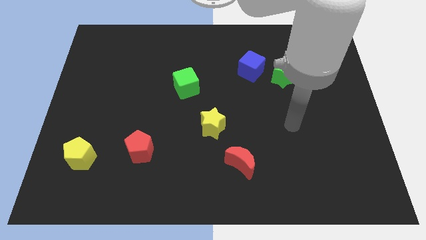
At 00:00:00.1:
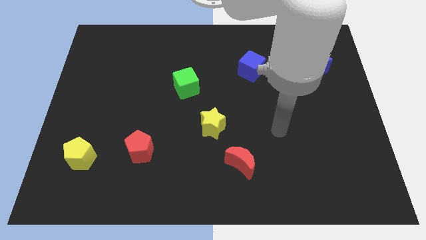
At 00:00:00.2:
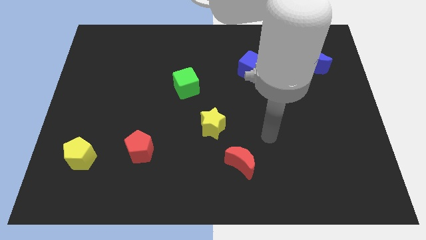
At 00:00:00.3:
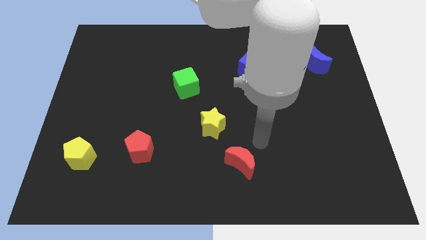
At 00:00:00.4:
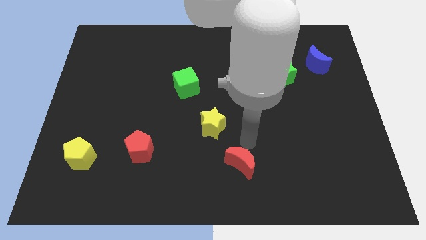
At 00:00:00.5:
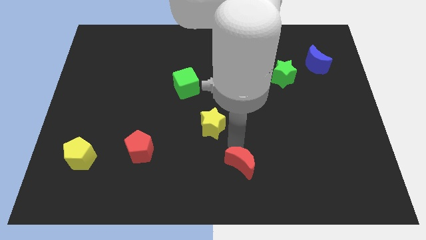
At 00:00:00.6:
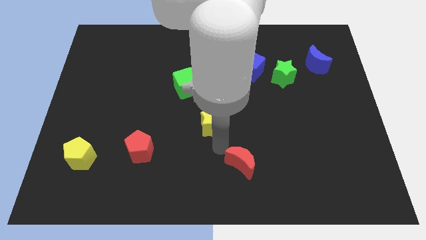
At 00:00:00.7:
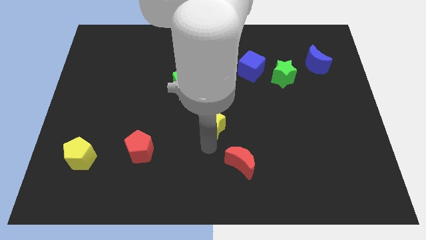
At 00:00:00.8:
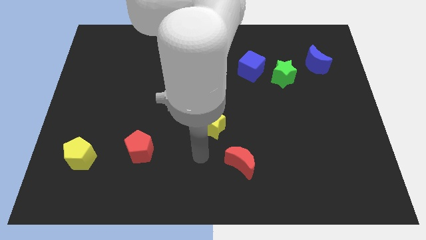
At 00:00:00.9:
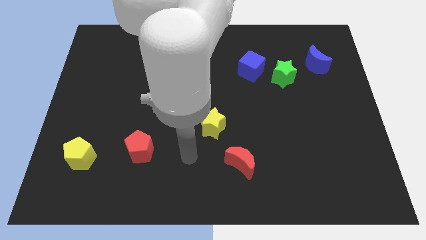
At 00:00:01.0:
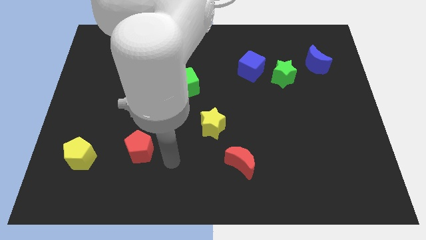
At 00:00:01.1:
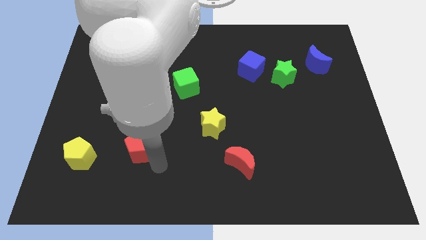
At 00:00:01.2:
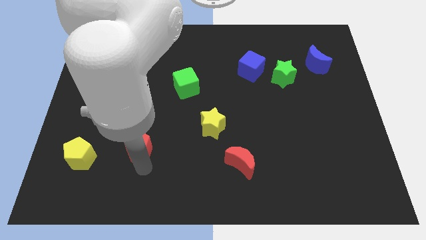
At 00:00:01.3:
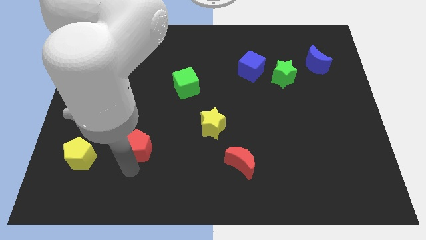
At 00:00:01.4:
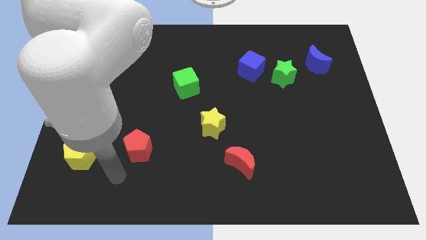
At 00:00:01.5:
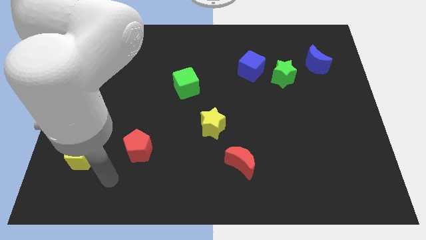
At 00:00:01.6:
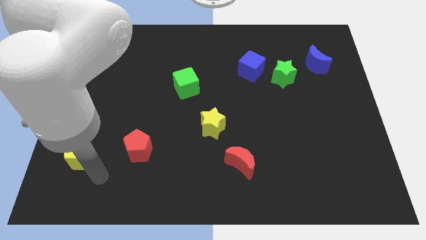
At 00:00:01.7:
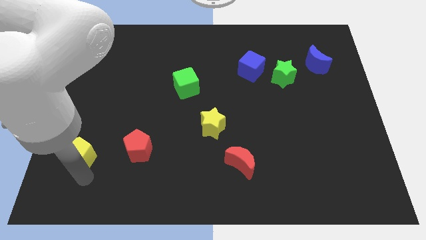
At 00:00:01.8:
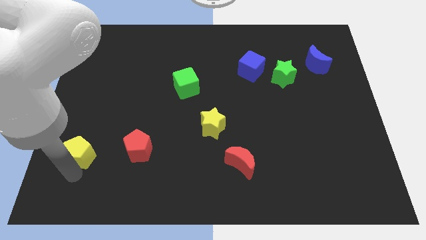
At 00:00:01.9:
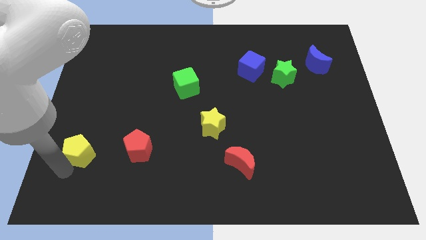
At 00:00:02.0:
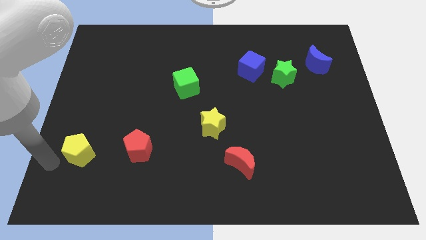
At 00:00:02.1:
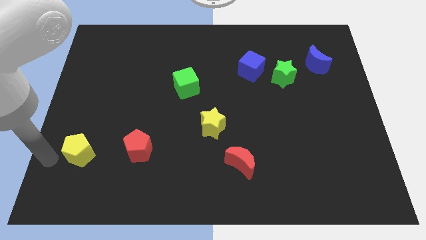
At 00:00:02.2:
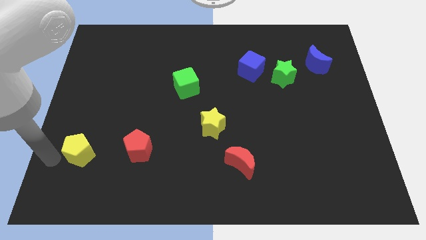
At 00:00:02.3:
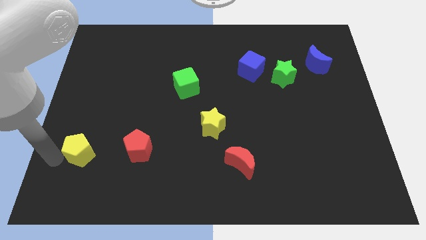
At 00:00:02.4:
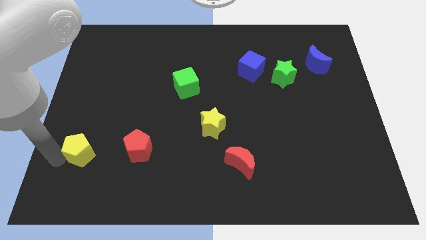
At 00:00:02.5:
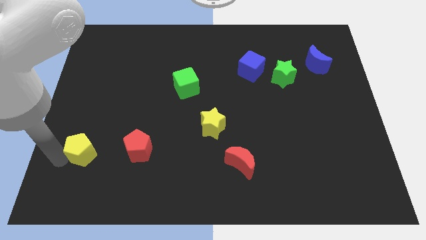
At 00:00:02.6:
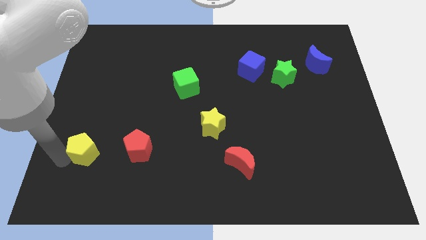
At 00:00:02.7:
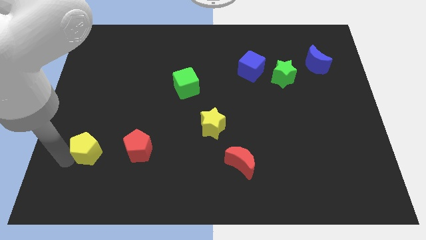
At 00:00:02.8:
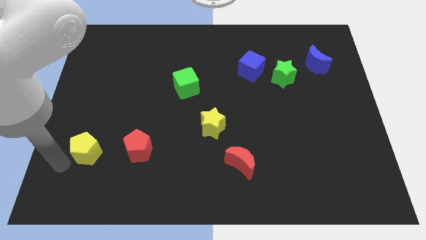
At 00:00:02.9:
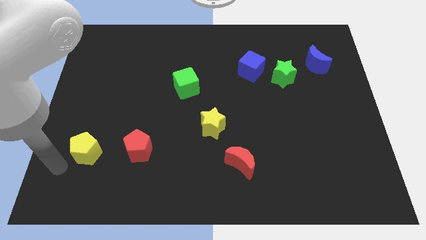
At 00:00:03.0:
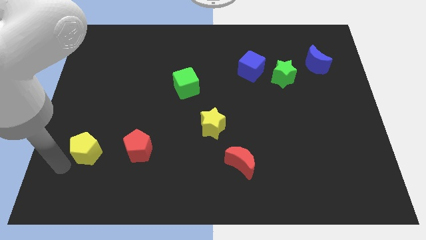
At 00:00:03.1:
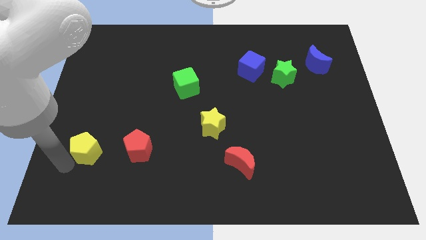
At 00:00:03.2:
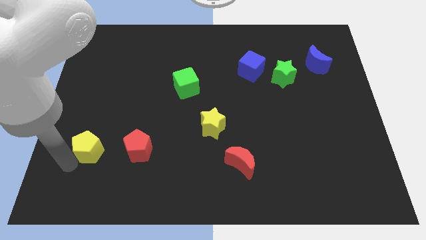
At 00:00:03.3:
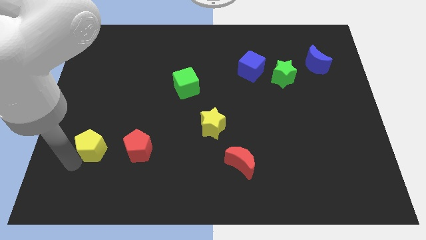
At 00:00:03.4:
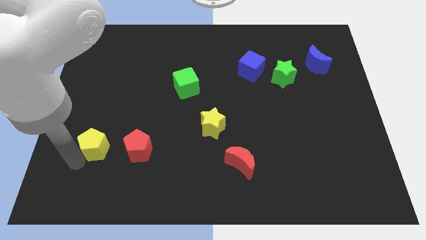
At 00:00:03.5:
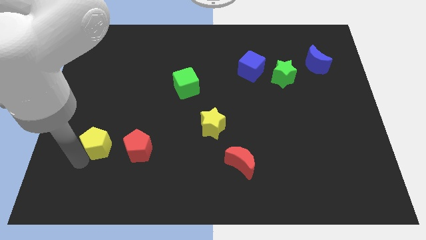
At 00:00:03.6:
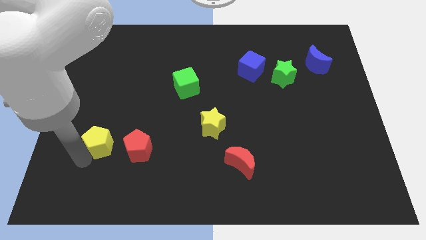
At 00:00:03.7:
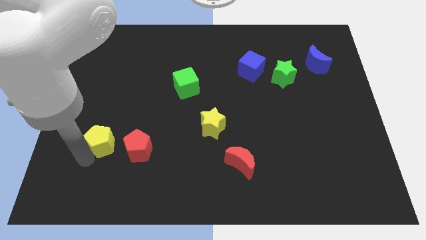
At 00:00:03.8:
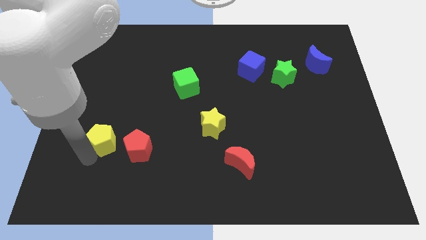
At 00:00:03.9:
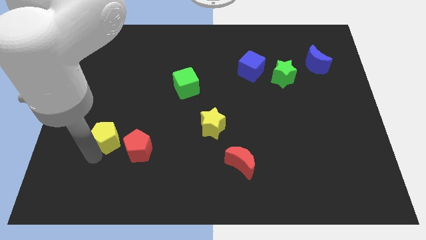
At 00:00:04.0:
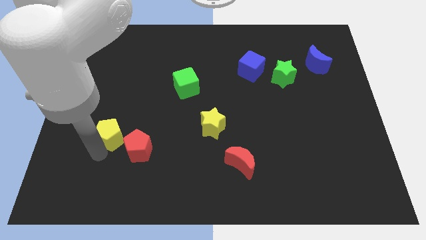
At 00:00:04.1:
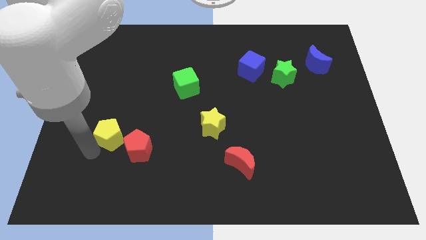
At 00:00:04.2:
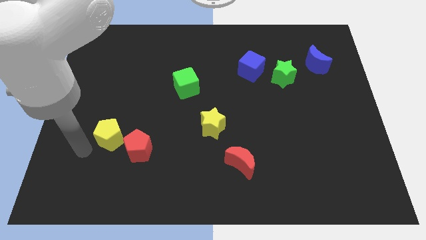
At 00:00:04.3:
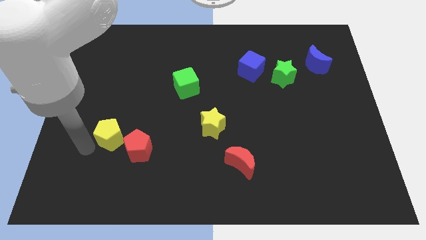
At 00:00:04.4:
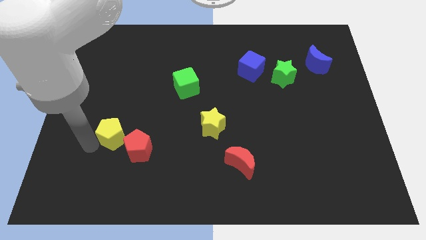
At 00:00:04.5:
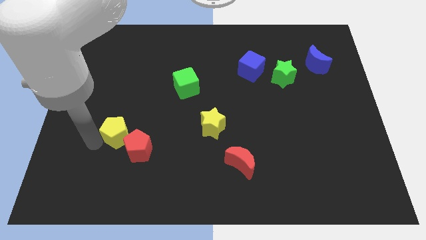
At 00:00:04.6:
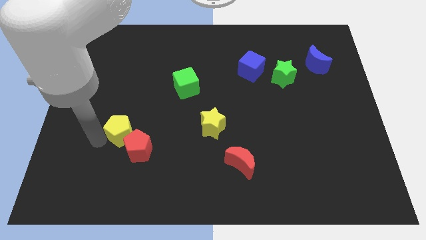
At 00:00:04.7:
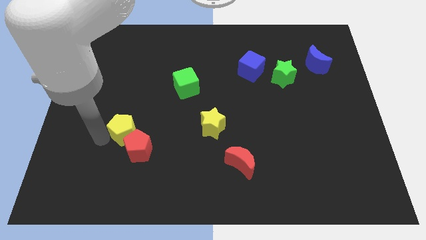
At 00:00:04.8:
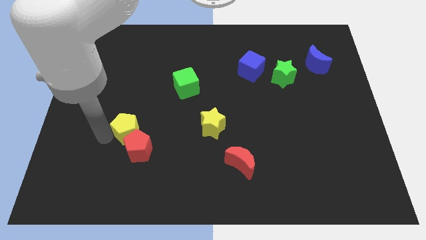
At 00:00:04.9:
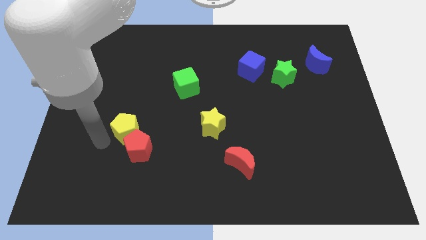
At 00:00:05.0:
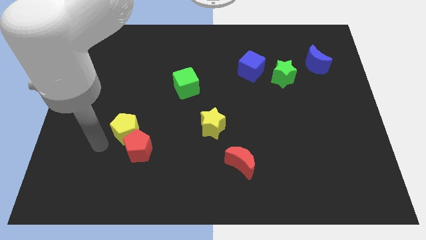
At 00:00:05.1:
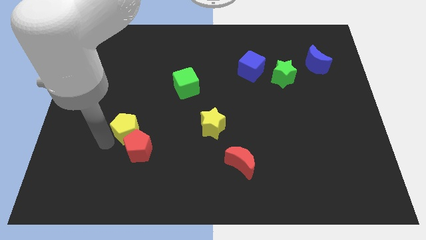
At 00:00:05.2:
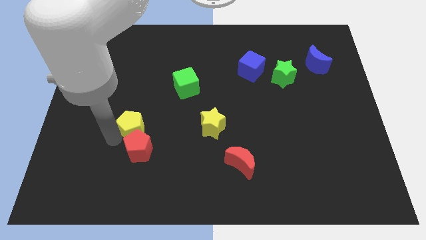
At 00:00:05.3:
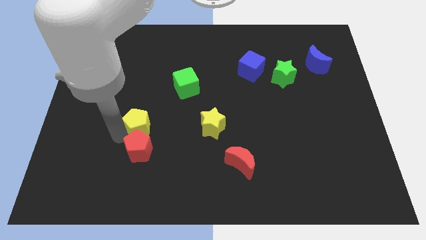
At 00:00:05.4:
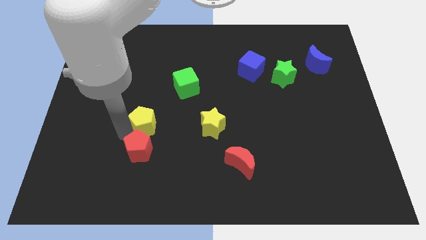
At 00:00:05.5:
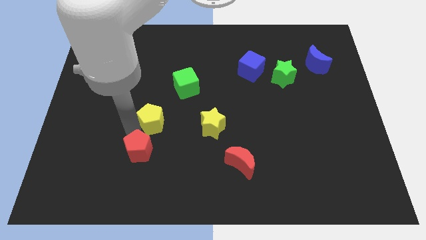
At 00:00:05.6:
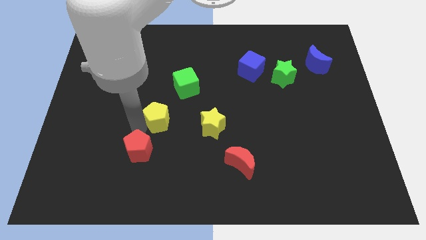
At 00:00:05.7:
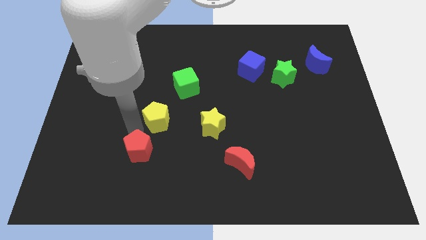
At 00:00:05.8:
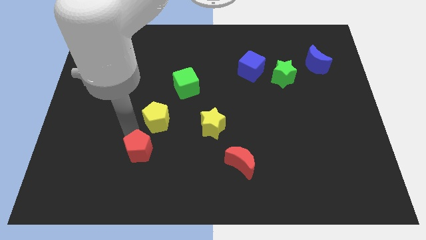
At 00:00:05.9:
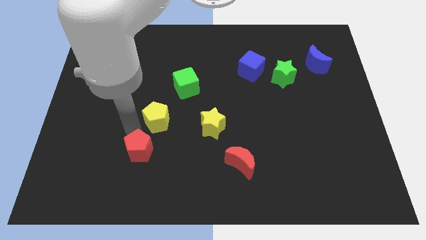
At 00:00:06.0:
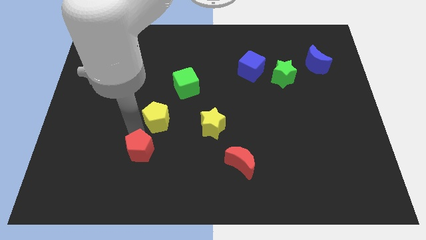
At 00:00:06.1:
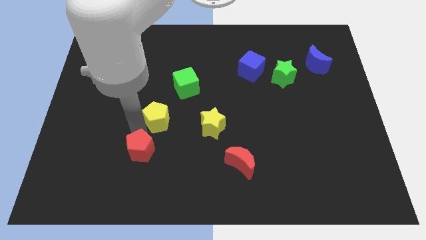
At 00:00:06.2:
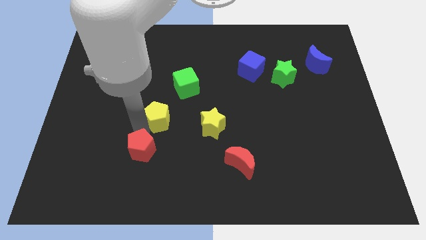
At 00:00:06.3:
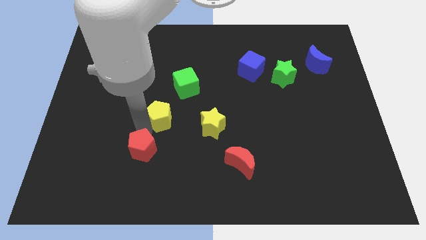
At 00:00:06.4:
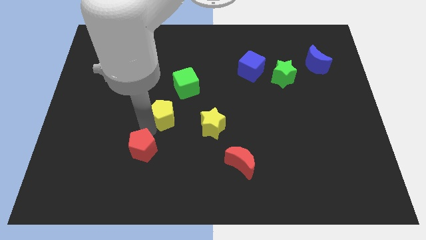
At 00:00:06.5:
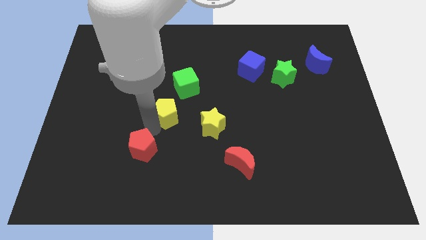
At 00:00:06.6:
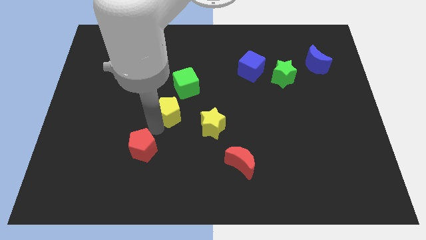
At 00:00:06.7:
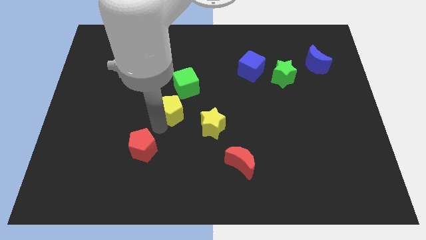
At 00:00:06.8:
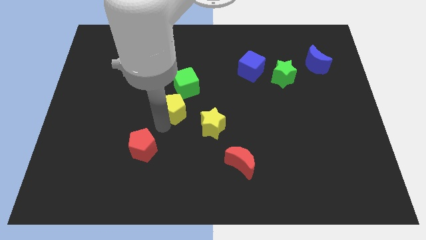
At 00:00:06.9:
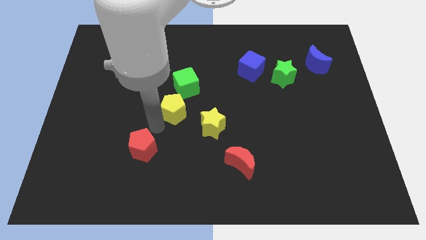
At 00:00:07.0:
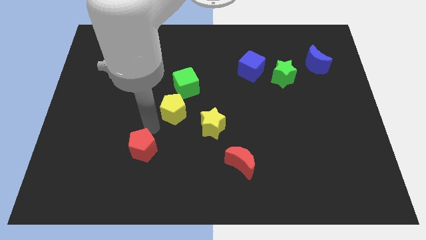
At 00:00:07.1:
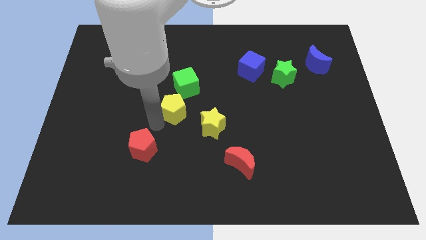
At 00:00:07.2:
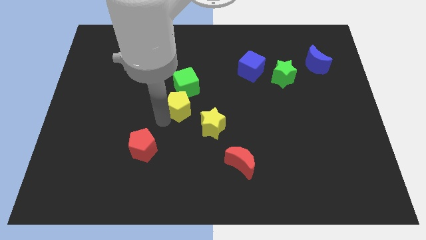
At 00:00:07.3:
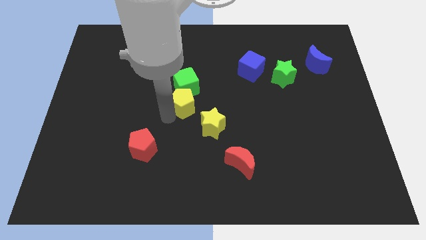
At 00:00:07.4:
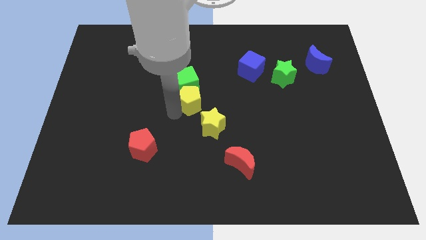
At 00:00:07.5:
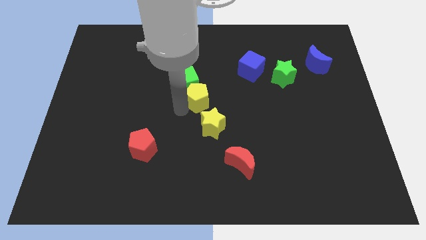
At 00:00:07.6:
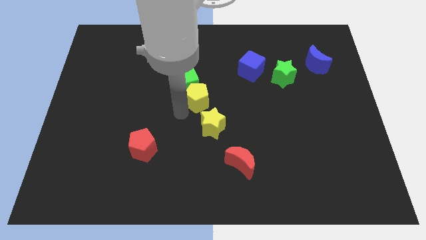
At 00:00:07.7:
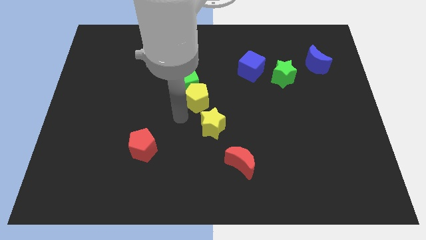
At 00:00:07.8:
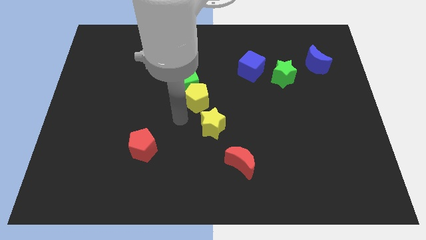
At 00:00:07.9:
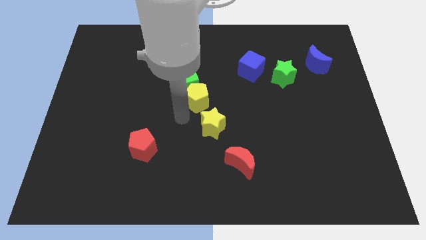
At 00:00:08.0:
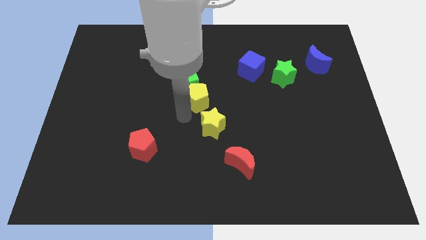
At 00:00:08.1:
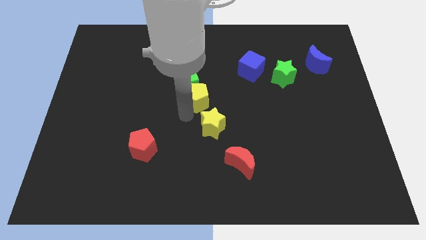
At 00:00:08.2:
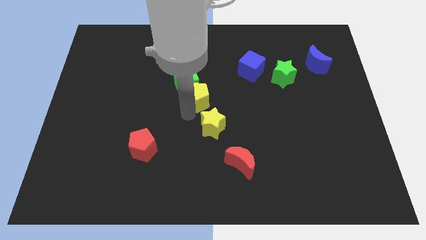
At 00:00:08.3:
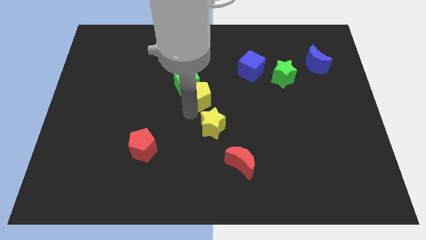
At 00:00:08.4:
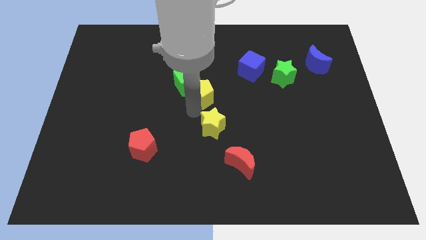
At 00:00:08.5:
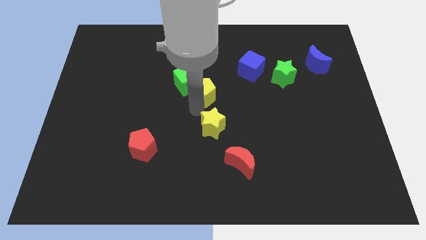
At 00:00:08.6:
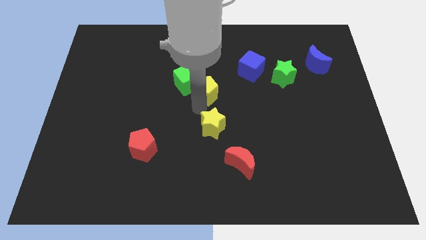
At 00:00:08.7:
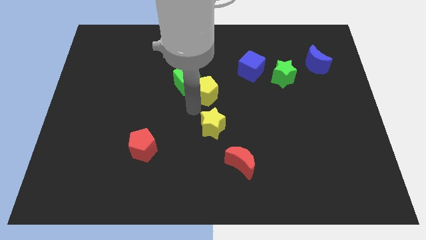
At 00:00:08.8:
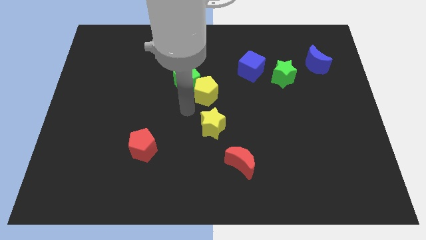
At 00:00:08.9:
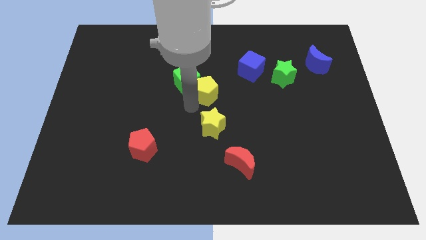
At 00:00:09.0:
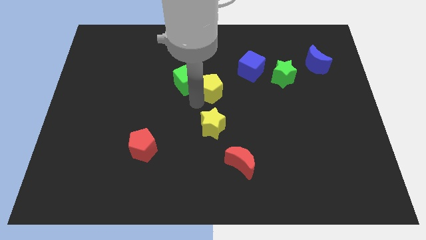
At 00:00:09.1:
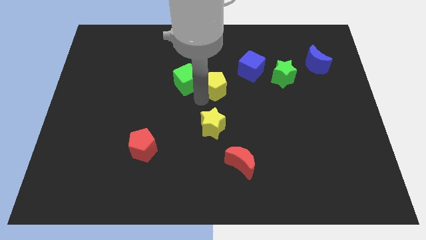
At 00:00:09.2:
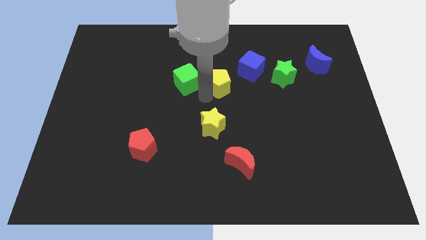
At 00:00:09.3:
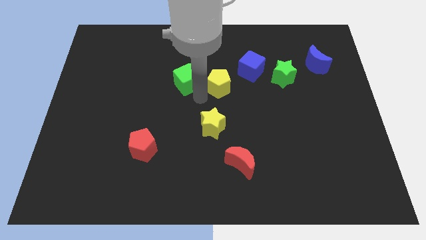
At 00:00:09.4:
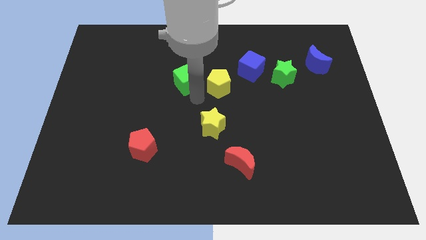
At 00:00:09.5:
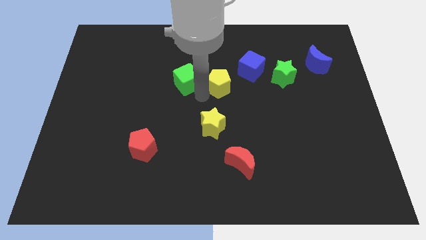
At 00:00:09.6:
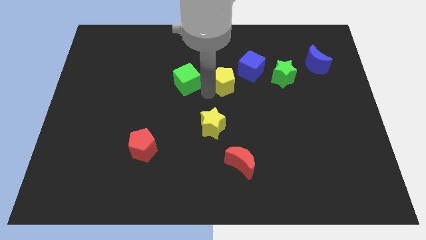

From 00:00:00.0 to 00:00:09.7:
move the yellow pentagon left of the green star
